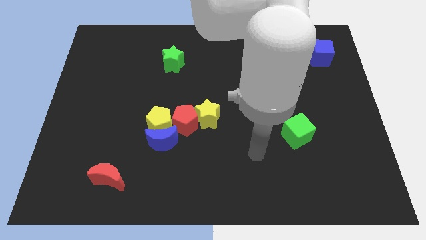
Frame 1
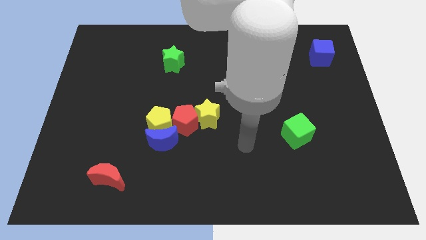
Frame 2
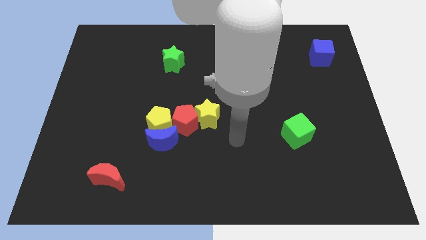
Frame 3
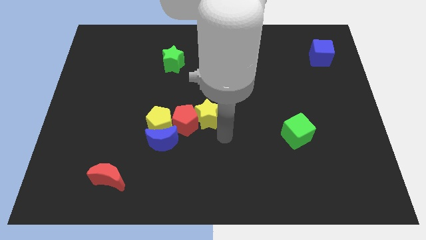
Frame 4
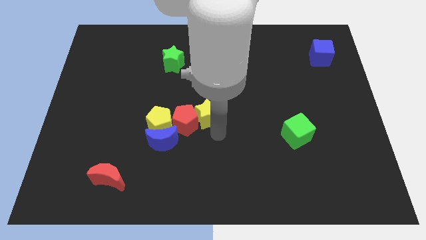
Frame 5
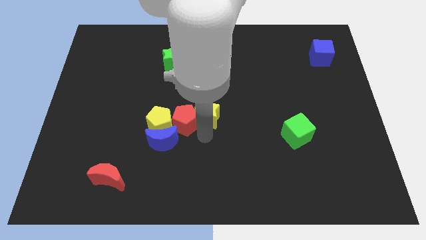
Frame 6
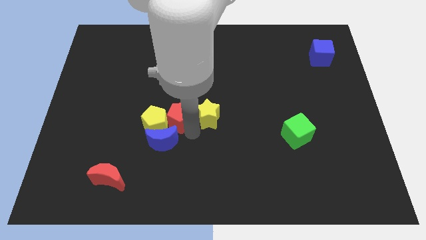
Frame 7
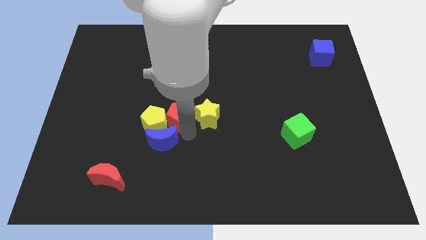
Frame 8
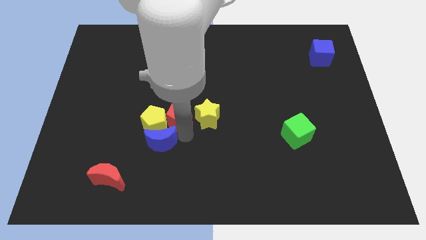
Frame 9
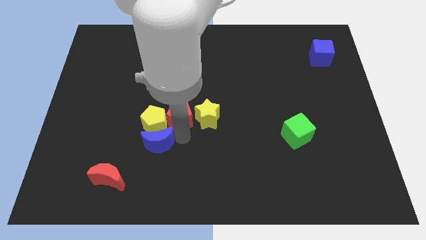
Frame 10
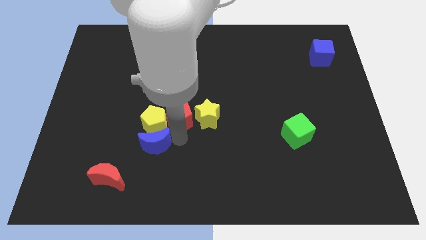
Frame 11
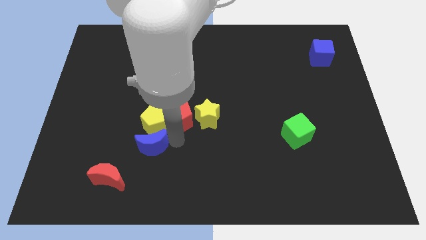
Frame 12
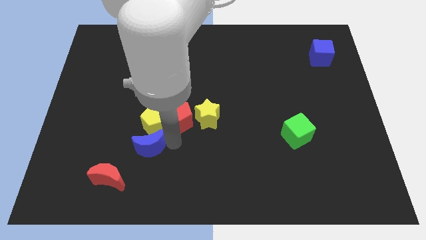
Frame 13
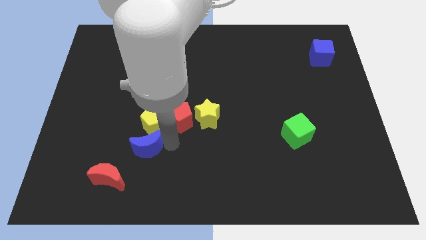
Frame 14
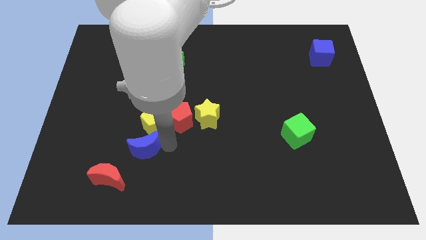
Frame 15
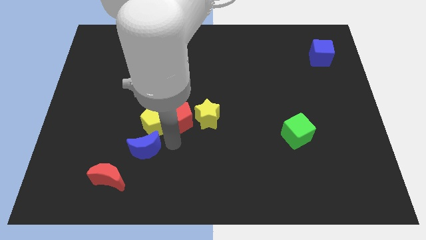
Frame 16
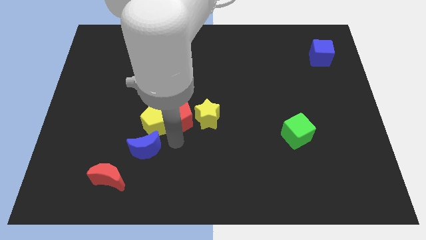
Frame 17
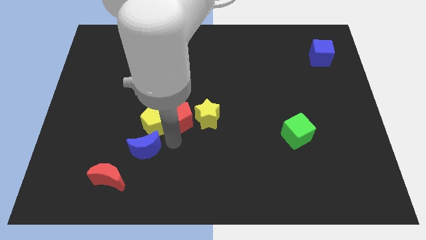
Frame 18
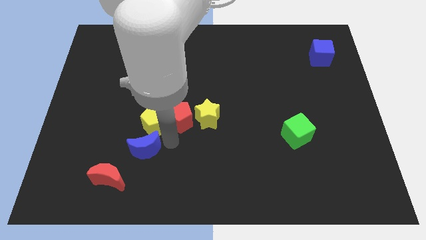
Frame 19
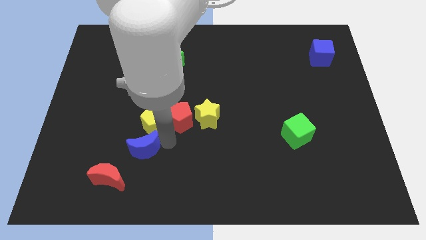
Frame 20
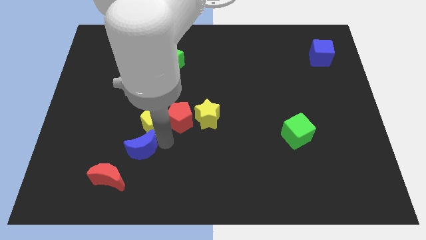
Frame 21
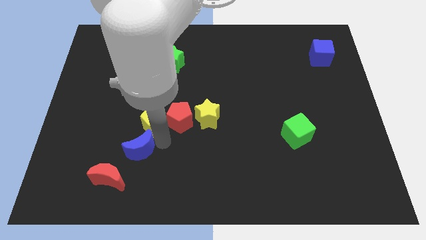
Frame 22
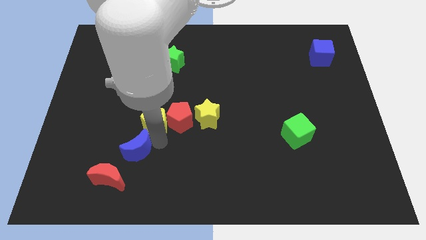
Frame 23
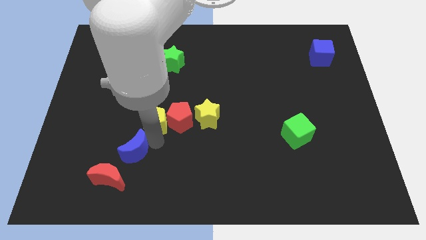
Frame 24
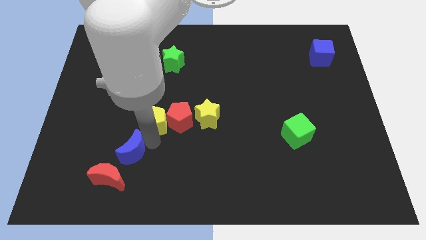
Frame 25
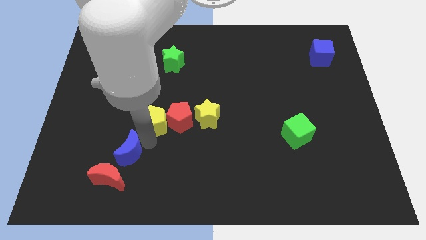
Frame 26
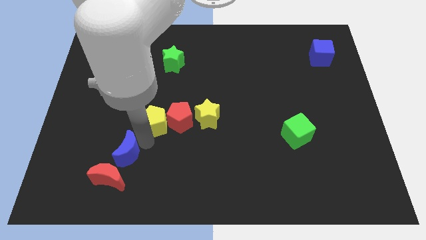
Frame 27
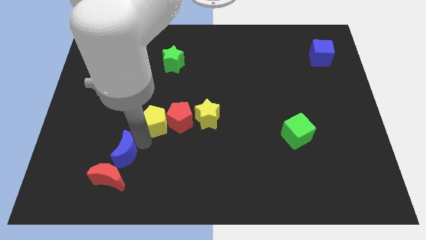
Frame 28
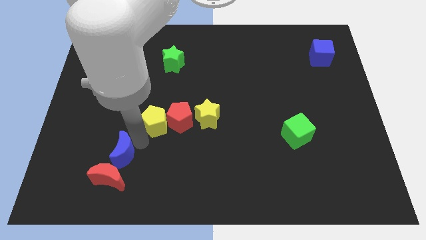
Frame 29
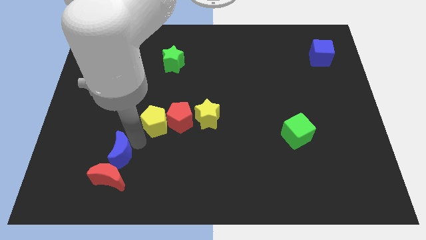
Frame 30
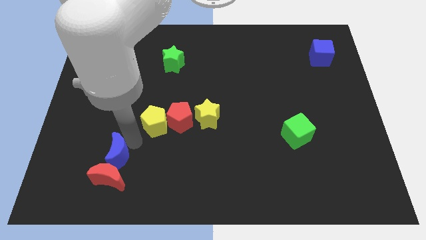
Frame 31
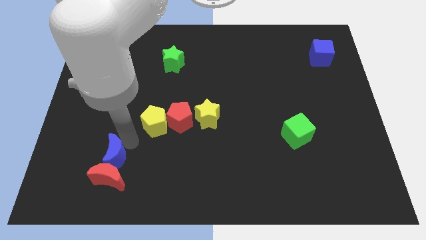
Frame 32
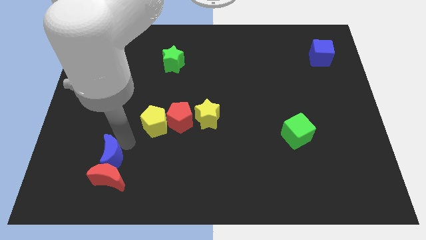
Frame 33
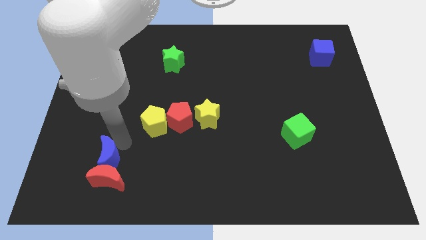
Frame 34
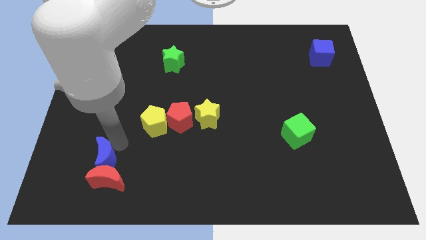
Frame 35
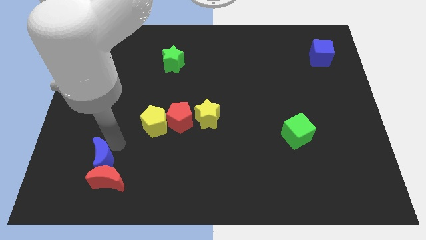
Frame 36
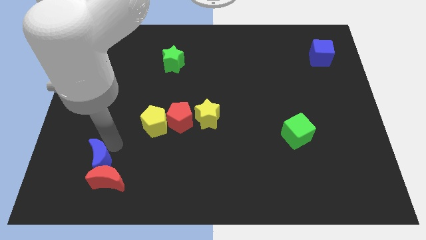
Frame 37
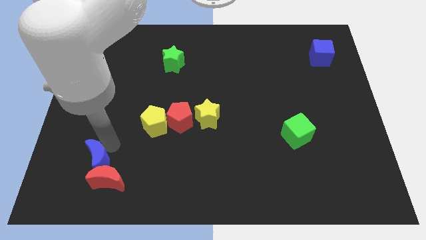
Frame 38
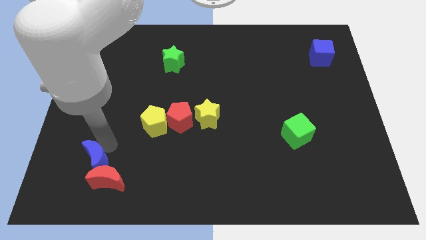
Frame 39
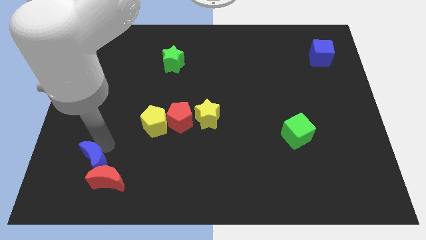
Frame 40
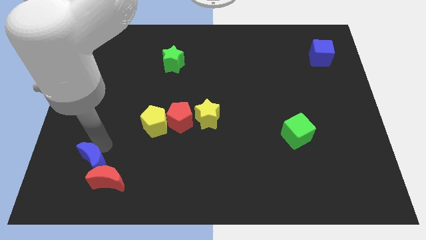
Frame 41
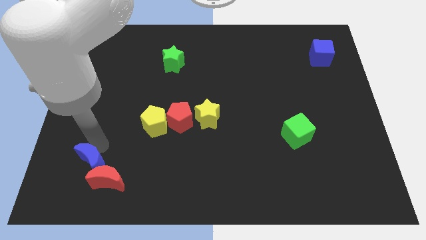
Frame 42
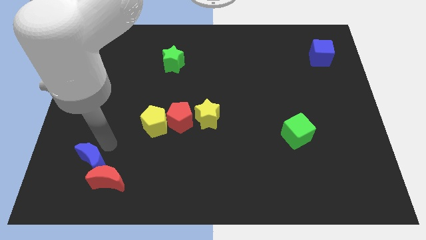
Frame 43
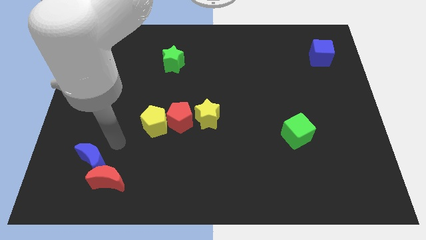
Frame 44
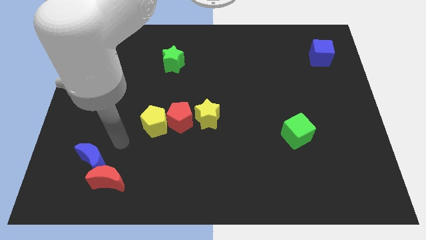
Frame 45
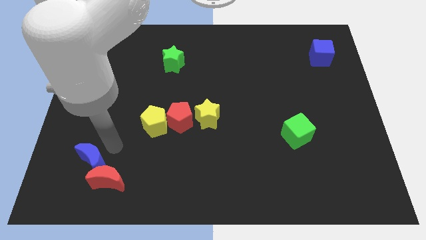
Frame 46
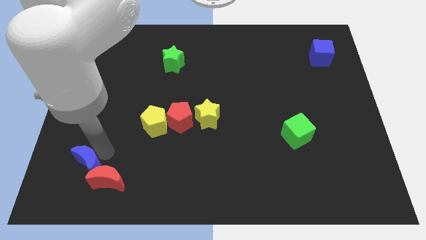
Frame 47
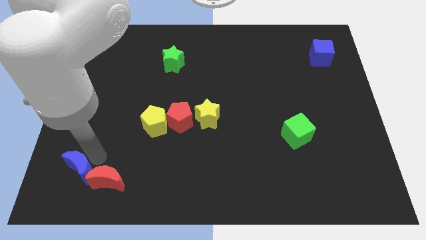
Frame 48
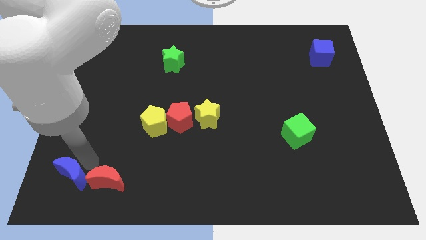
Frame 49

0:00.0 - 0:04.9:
put the blue moon to the bottom left of the board

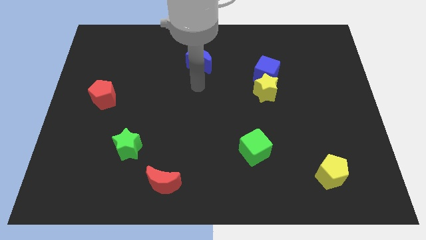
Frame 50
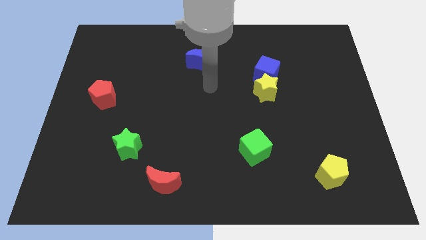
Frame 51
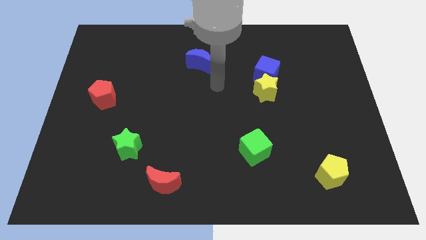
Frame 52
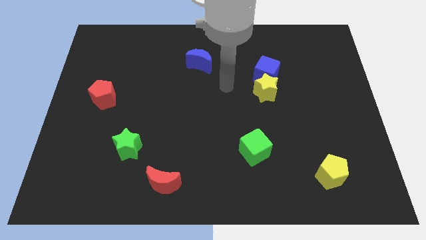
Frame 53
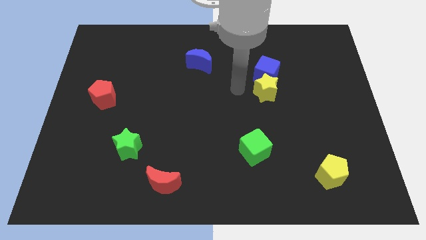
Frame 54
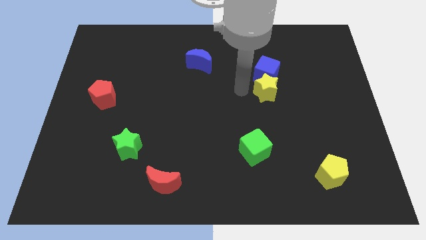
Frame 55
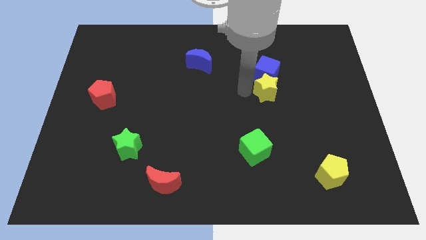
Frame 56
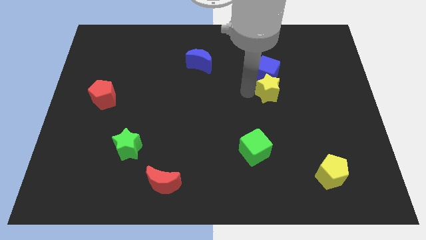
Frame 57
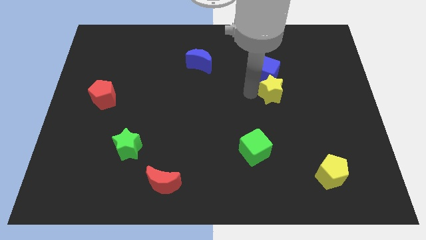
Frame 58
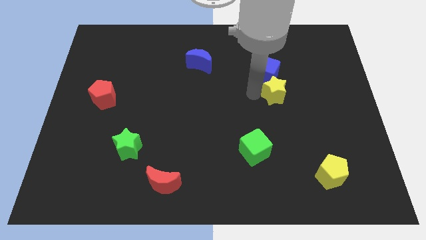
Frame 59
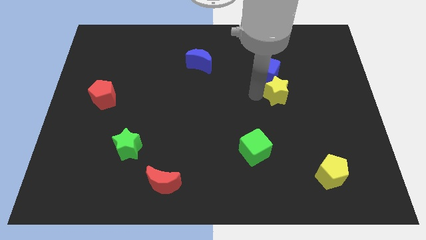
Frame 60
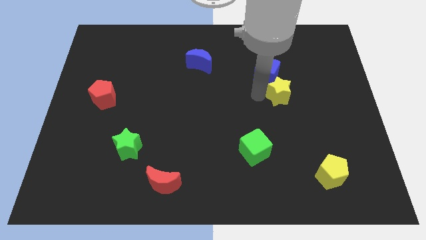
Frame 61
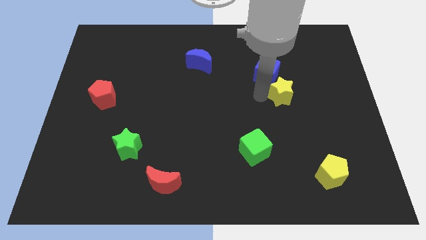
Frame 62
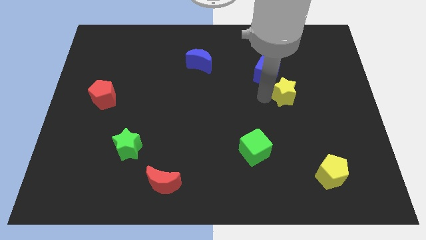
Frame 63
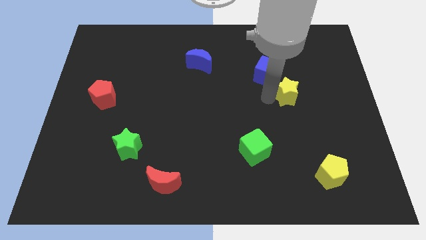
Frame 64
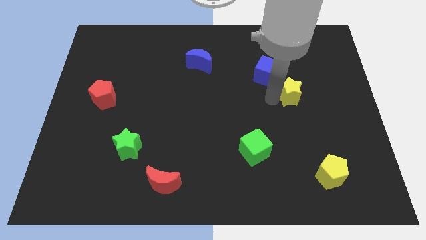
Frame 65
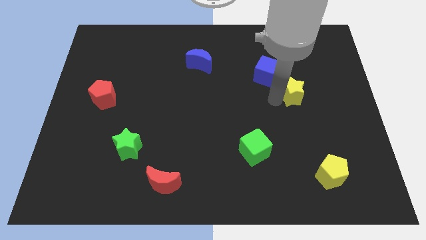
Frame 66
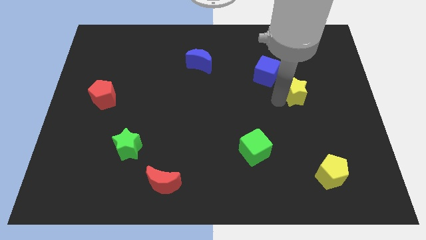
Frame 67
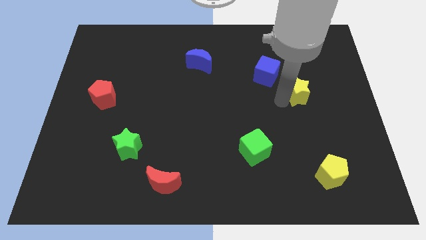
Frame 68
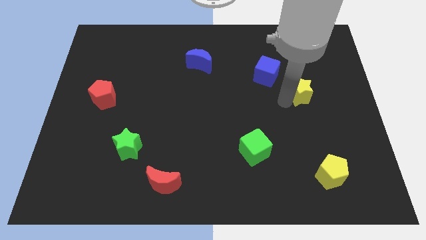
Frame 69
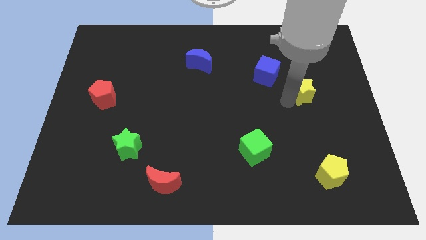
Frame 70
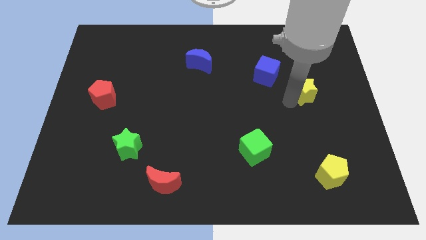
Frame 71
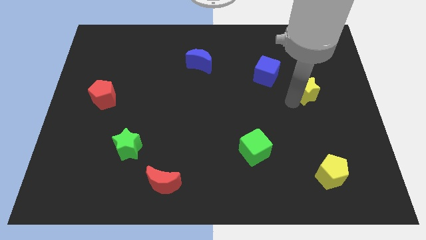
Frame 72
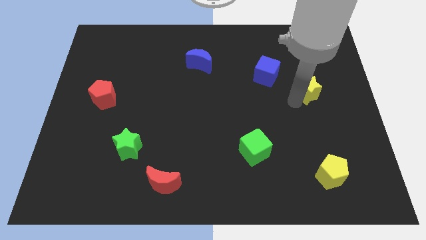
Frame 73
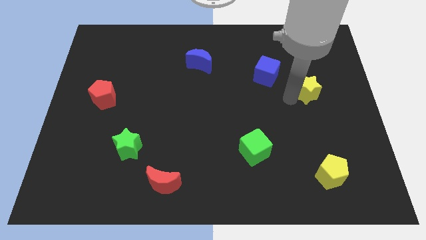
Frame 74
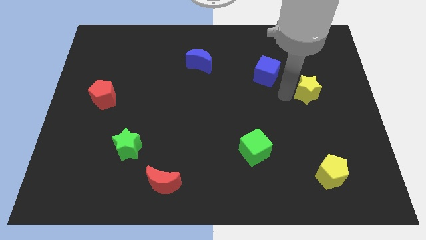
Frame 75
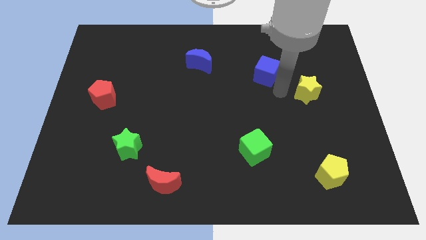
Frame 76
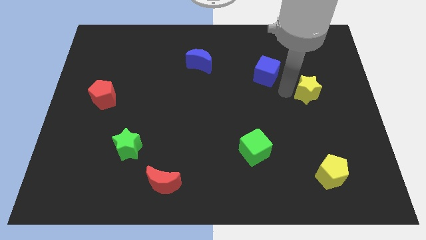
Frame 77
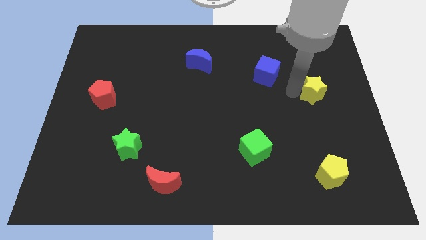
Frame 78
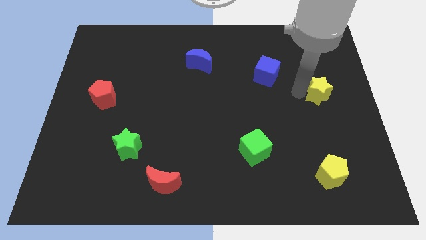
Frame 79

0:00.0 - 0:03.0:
move the yellow star to the center right

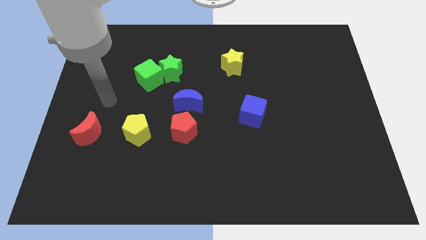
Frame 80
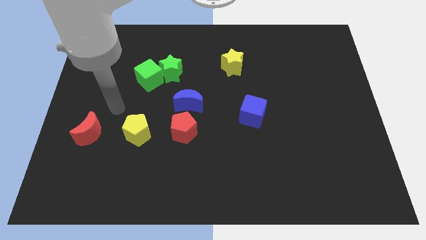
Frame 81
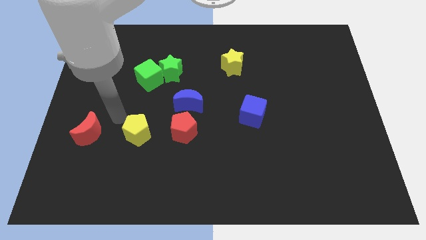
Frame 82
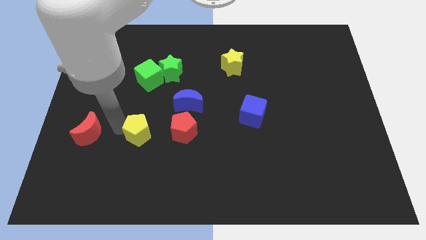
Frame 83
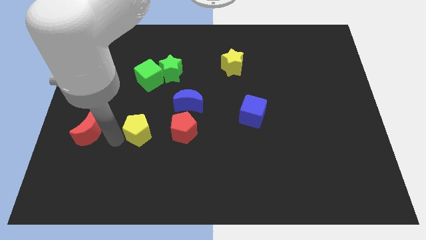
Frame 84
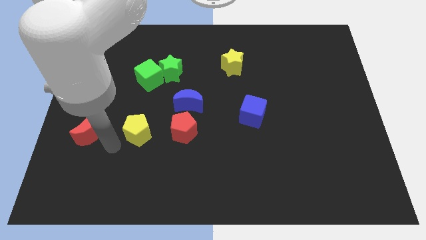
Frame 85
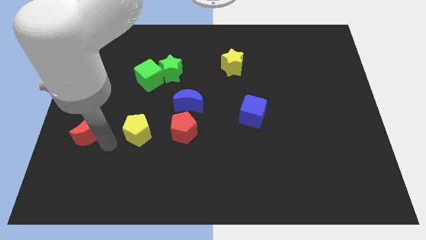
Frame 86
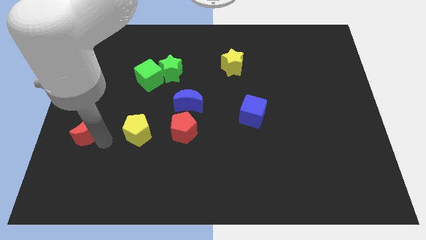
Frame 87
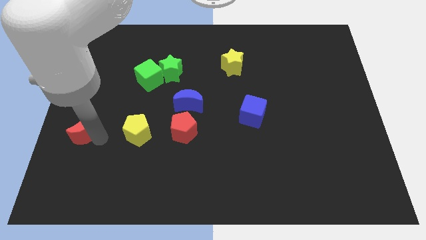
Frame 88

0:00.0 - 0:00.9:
move the red moon to the left side of the board
